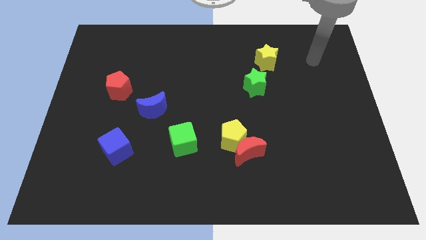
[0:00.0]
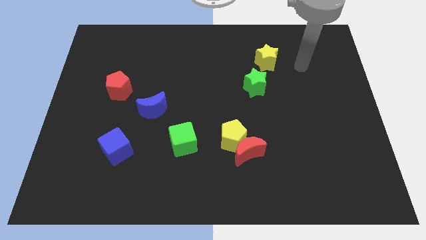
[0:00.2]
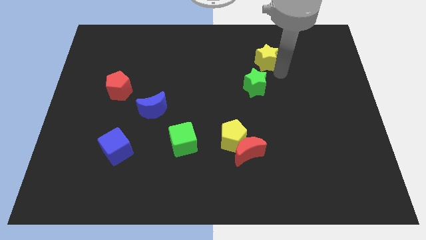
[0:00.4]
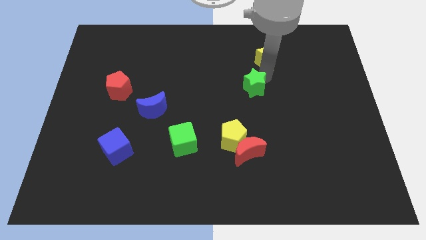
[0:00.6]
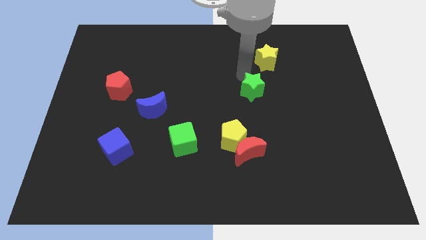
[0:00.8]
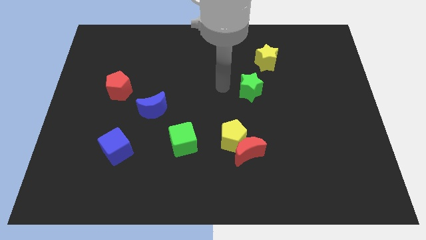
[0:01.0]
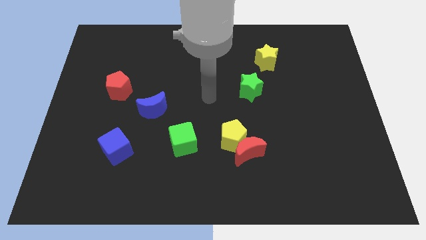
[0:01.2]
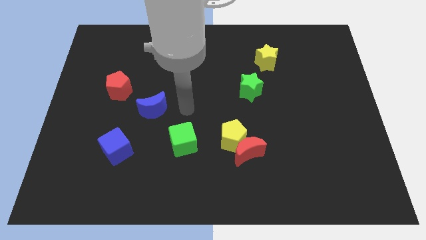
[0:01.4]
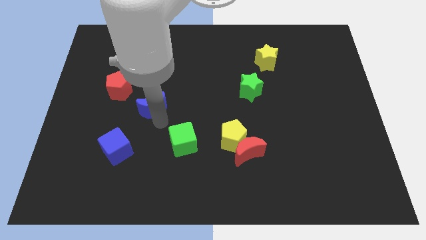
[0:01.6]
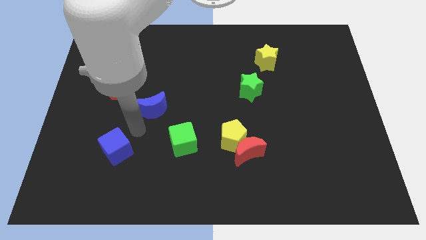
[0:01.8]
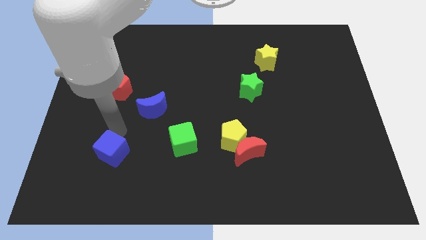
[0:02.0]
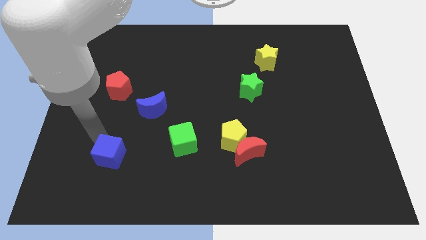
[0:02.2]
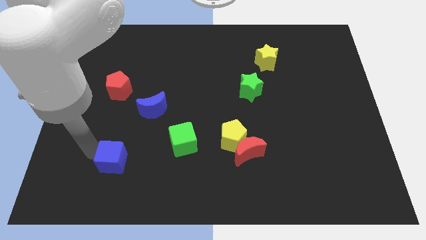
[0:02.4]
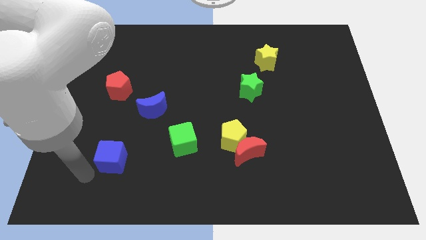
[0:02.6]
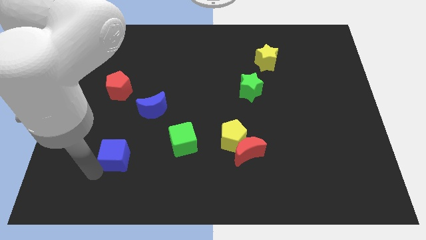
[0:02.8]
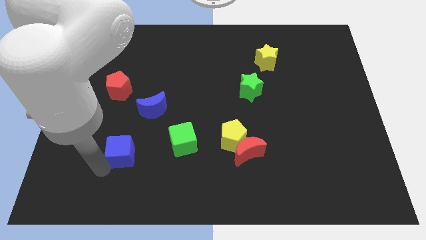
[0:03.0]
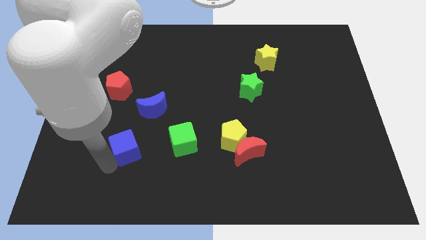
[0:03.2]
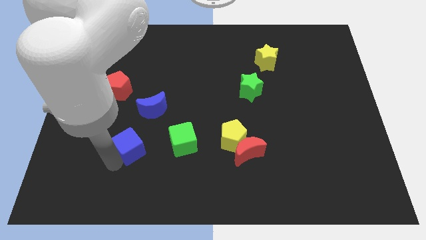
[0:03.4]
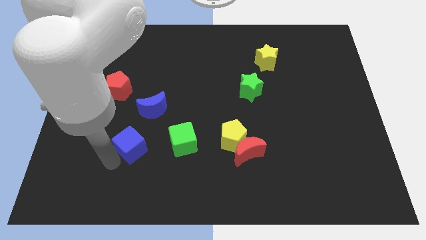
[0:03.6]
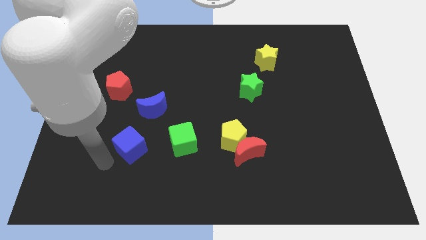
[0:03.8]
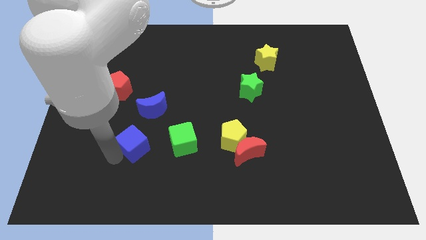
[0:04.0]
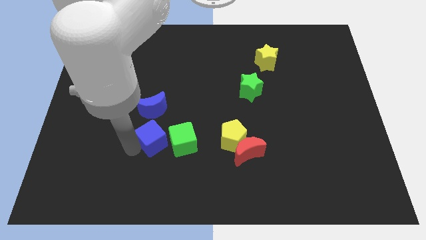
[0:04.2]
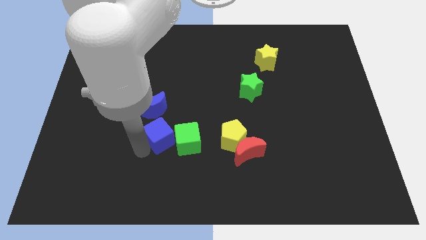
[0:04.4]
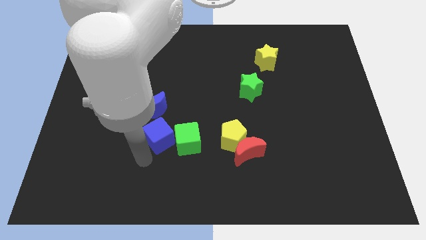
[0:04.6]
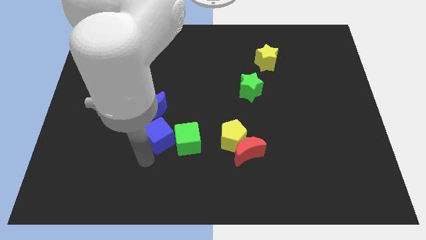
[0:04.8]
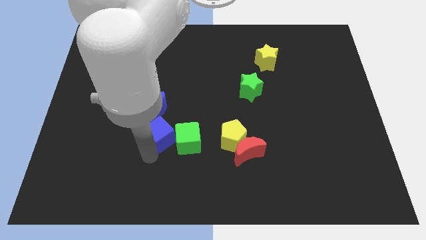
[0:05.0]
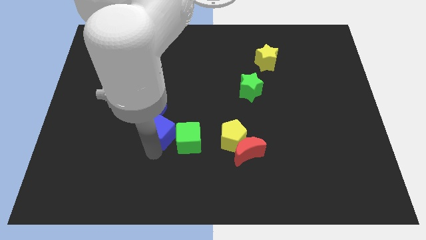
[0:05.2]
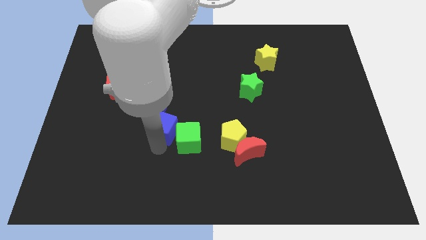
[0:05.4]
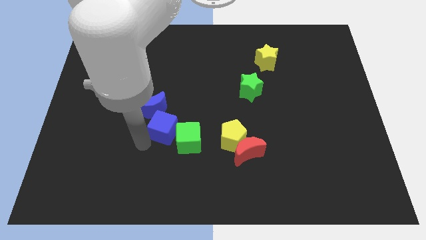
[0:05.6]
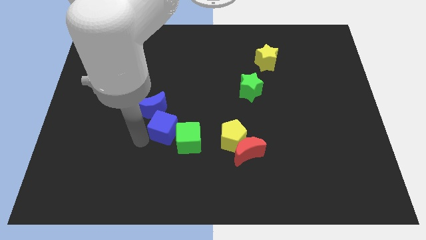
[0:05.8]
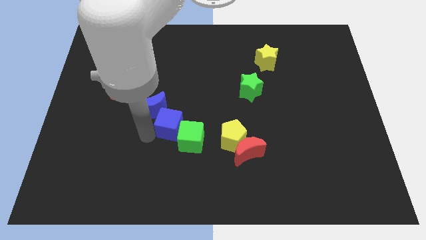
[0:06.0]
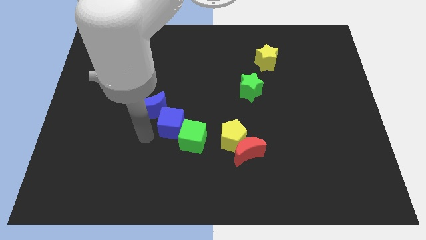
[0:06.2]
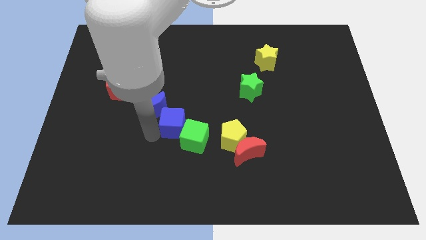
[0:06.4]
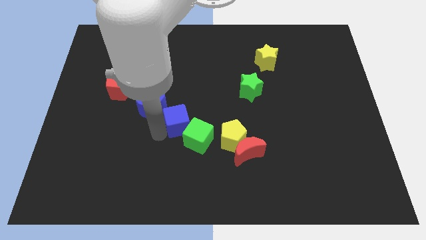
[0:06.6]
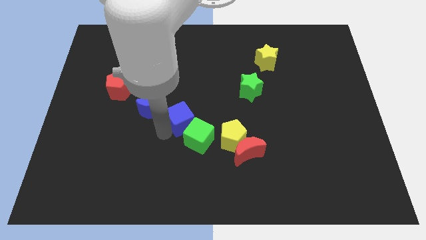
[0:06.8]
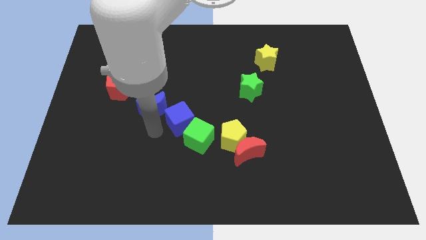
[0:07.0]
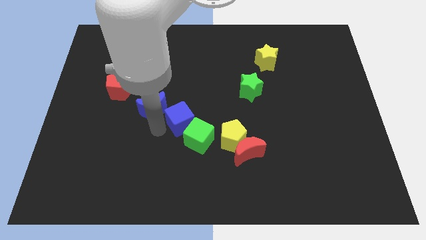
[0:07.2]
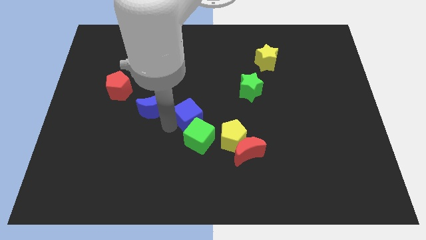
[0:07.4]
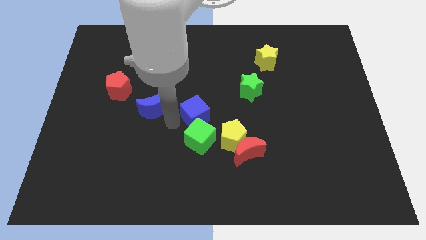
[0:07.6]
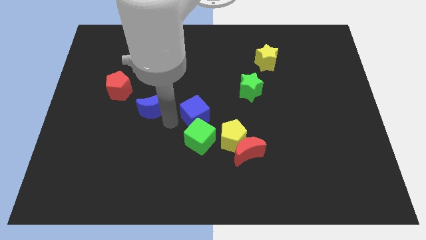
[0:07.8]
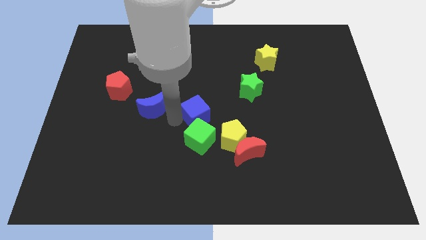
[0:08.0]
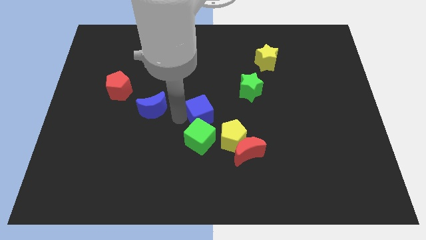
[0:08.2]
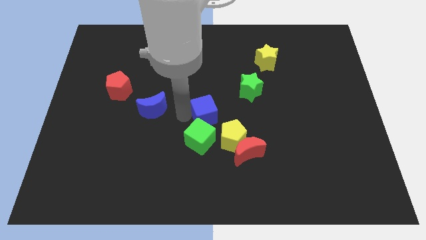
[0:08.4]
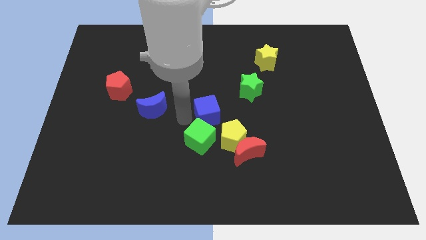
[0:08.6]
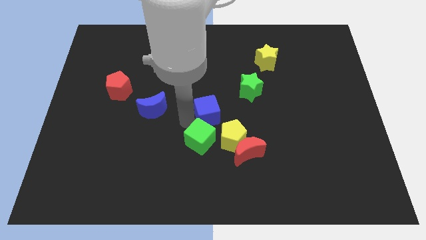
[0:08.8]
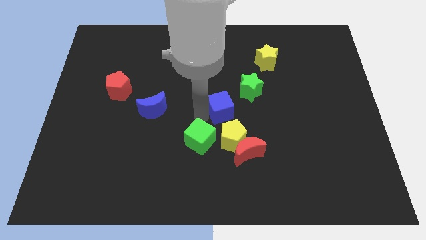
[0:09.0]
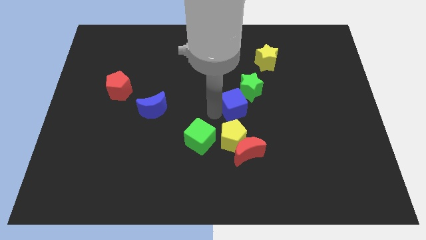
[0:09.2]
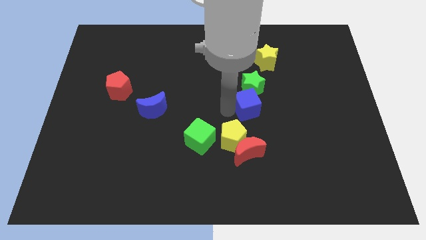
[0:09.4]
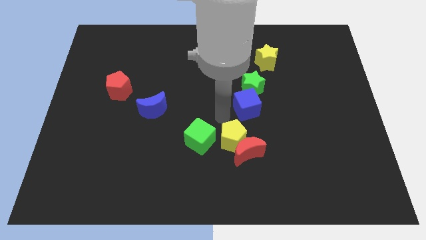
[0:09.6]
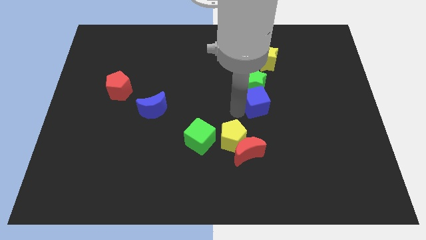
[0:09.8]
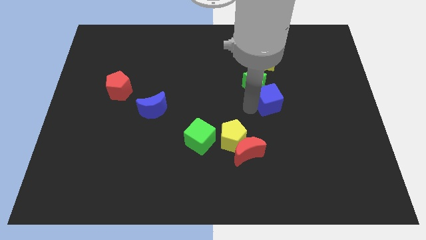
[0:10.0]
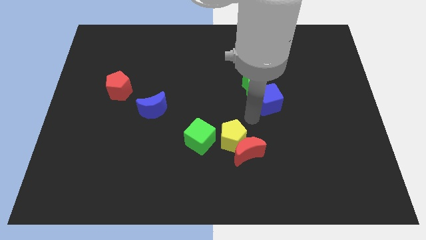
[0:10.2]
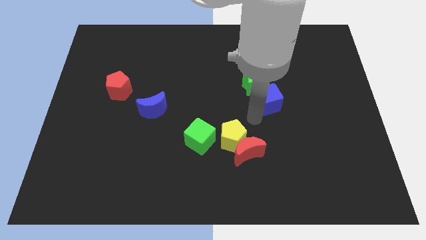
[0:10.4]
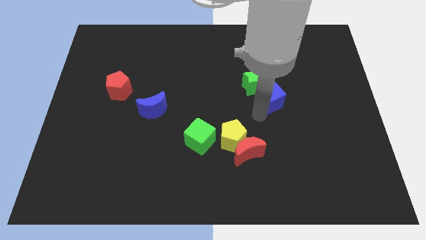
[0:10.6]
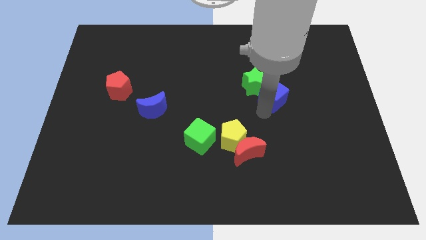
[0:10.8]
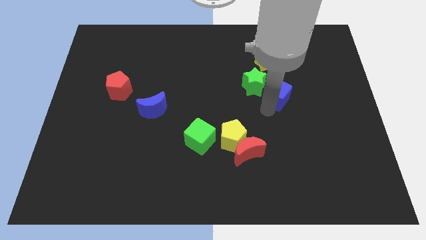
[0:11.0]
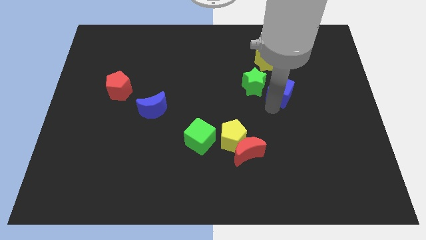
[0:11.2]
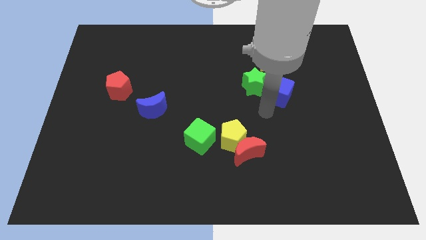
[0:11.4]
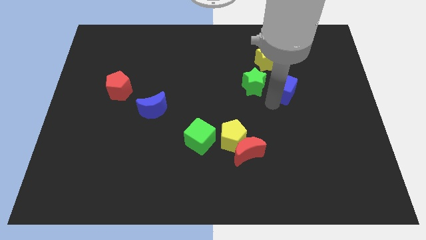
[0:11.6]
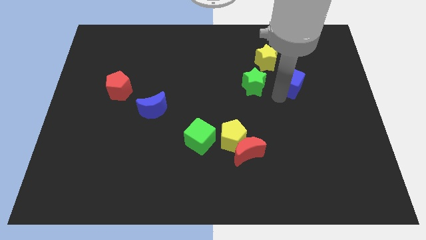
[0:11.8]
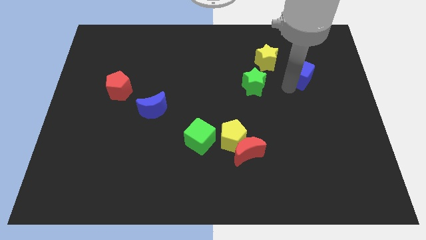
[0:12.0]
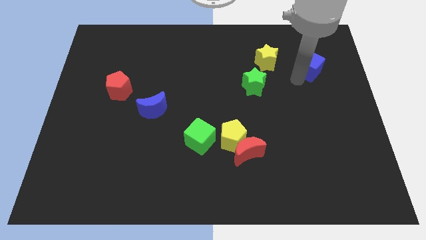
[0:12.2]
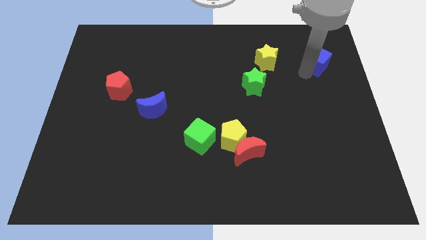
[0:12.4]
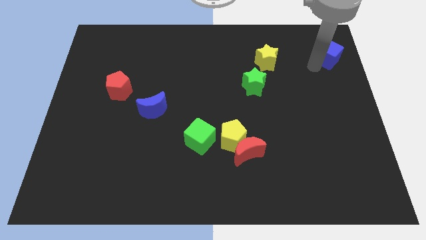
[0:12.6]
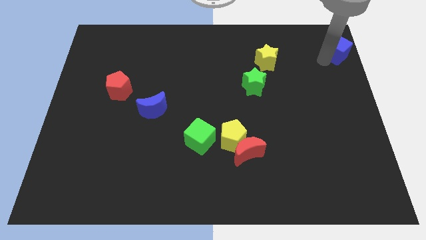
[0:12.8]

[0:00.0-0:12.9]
put the blue cube to the upper right corner

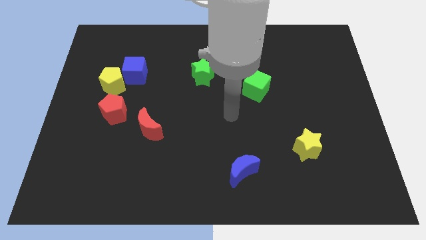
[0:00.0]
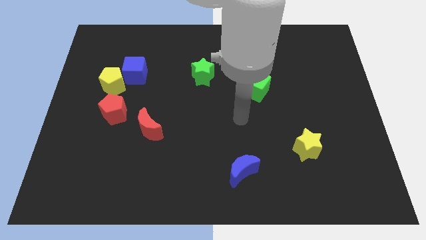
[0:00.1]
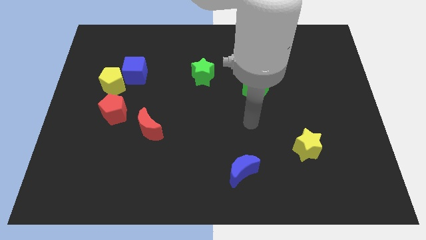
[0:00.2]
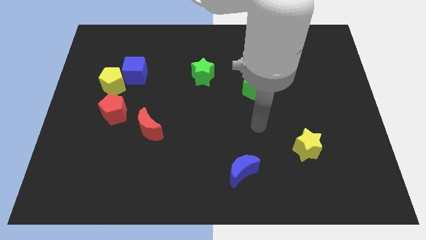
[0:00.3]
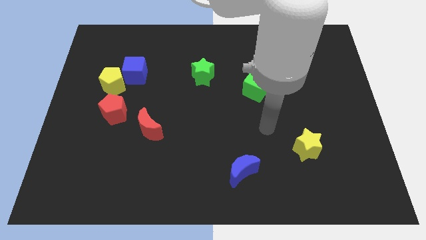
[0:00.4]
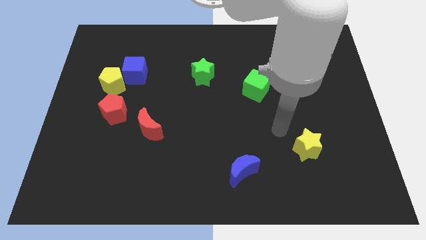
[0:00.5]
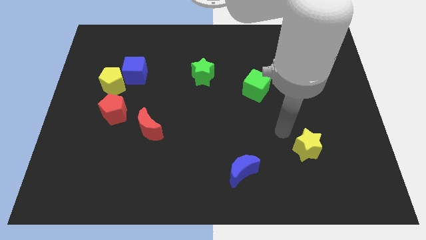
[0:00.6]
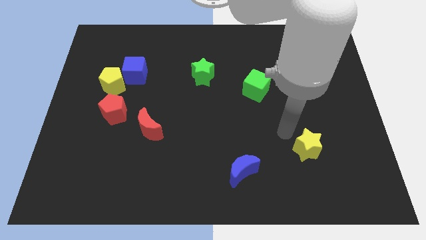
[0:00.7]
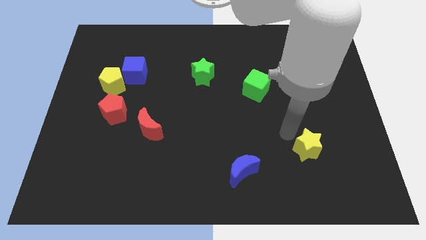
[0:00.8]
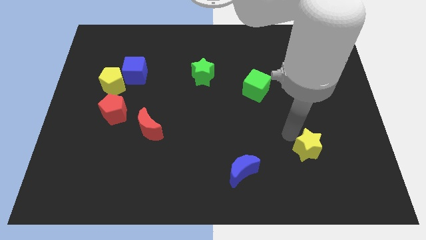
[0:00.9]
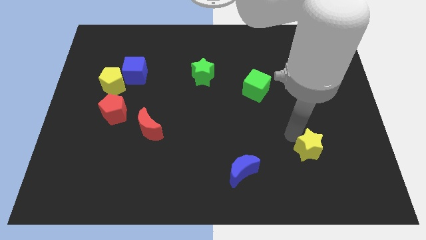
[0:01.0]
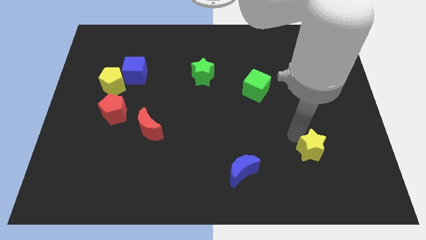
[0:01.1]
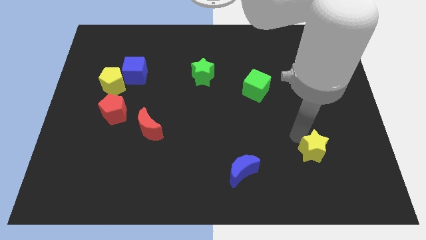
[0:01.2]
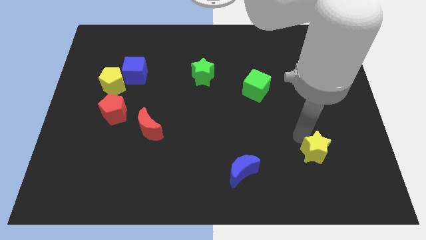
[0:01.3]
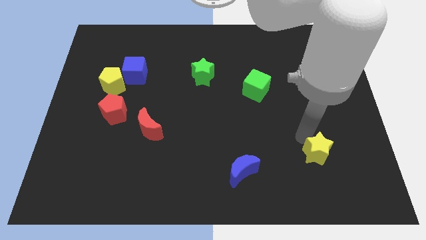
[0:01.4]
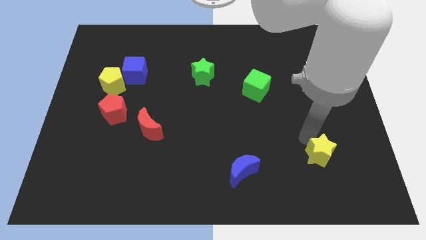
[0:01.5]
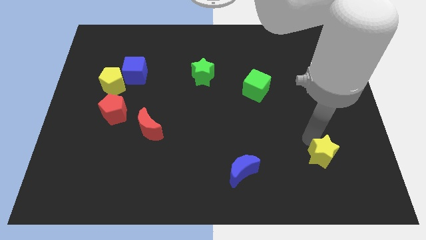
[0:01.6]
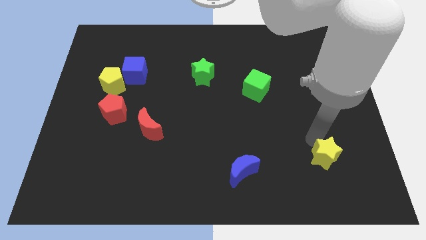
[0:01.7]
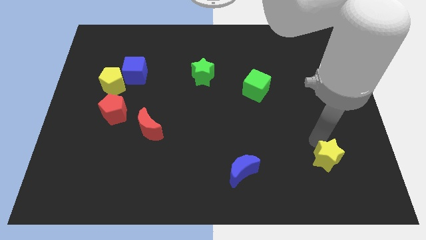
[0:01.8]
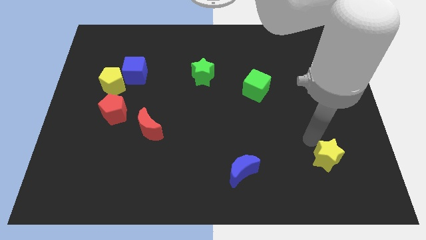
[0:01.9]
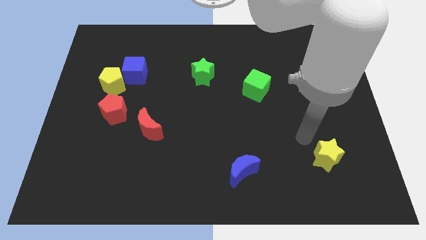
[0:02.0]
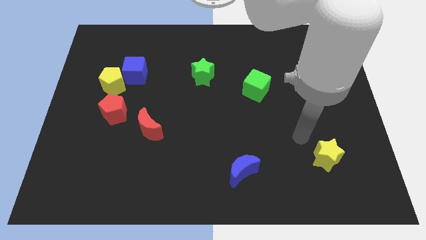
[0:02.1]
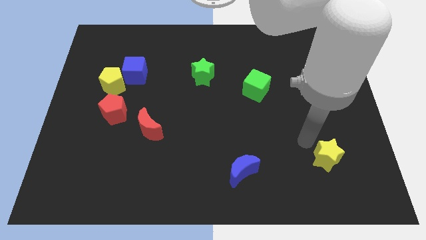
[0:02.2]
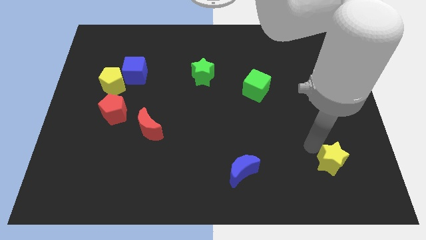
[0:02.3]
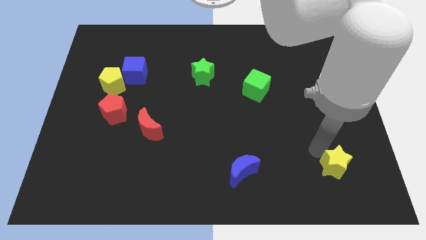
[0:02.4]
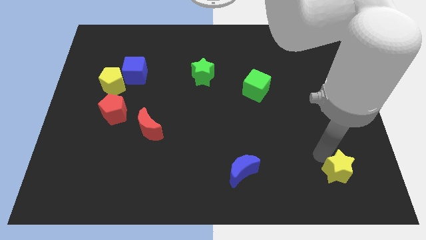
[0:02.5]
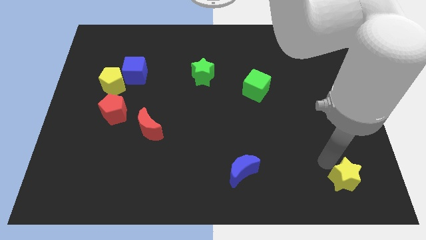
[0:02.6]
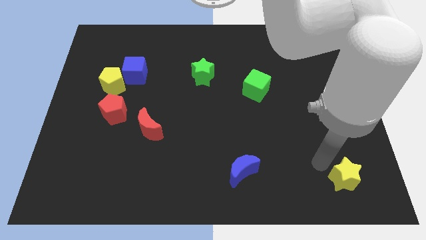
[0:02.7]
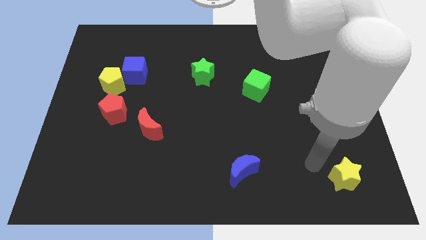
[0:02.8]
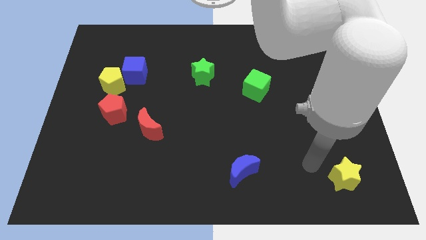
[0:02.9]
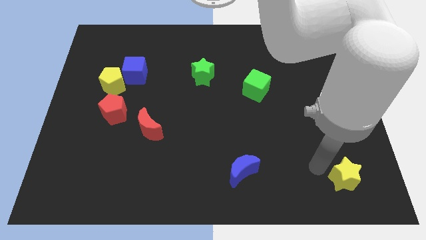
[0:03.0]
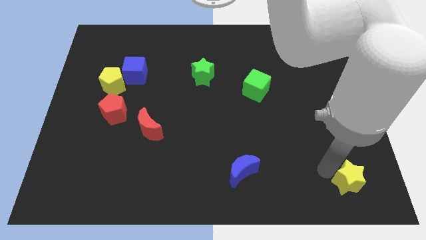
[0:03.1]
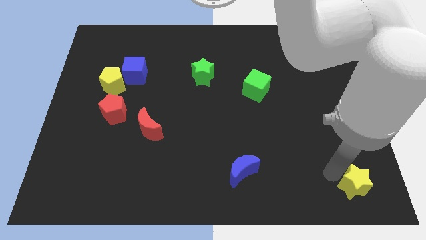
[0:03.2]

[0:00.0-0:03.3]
move the yellow star to the lower right corner
